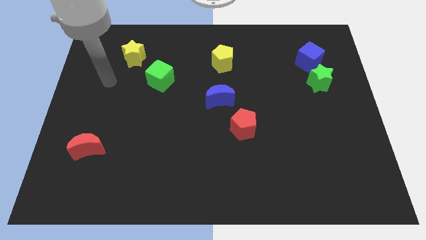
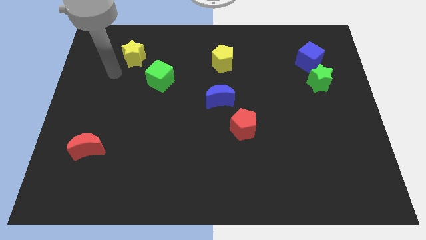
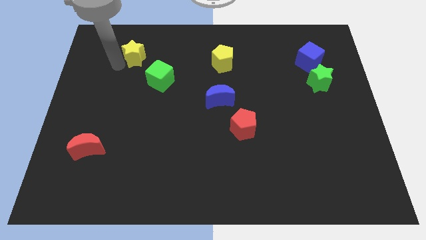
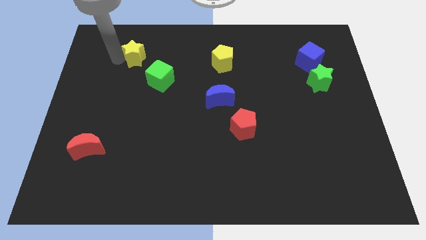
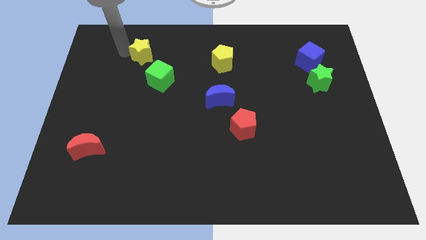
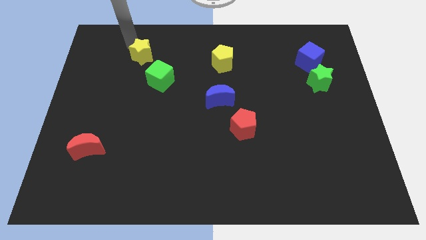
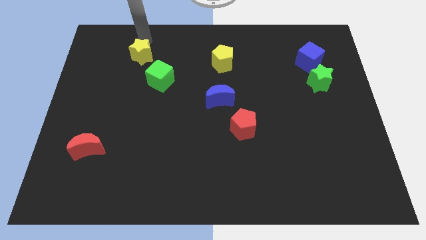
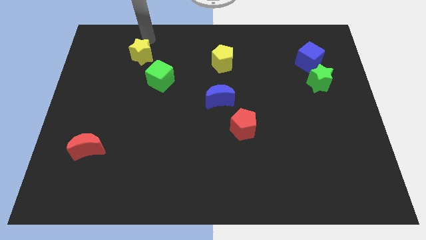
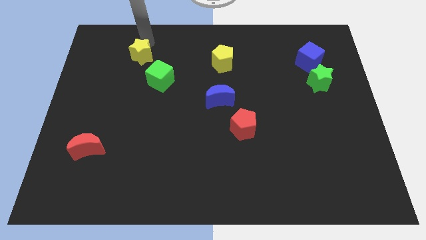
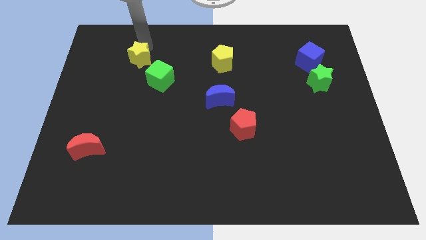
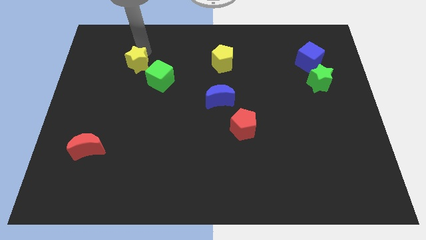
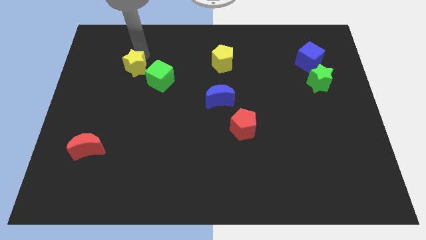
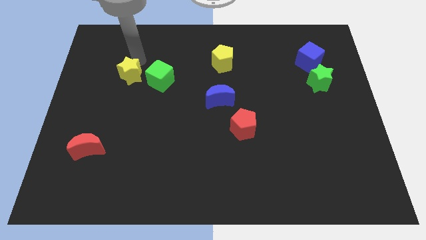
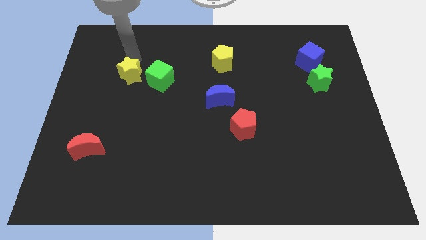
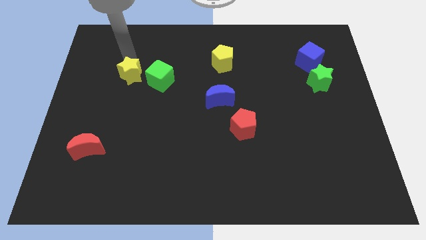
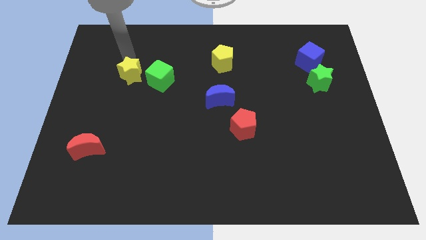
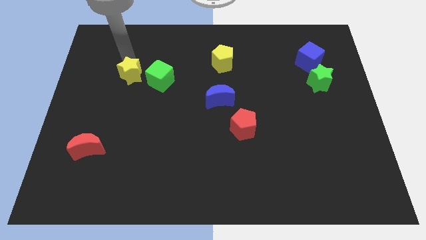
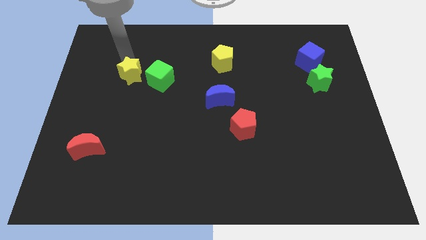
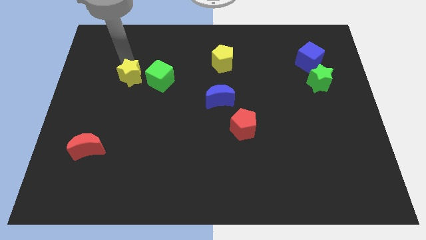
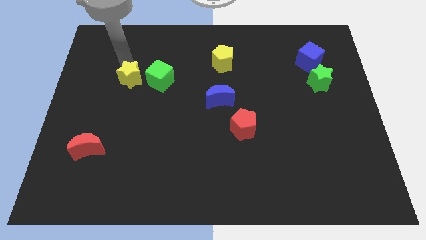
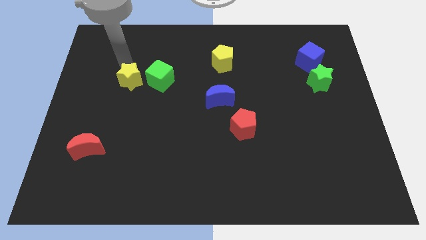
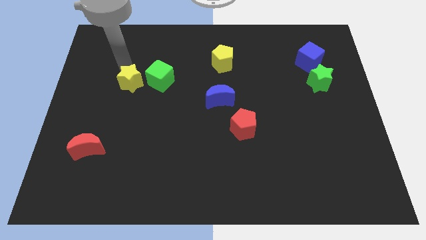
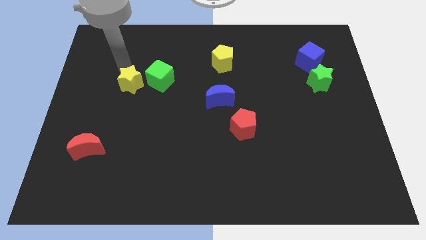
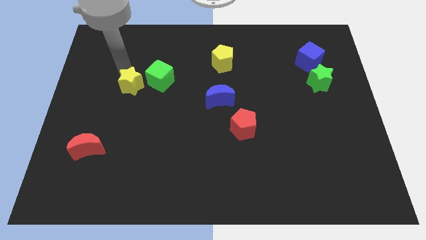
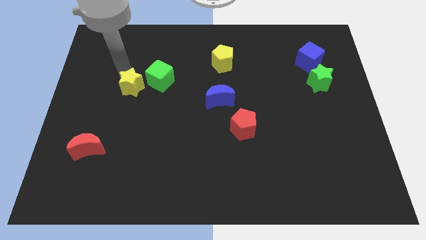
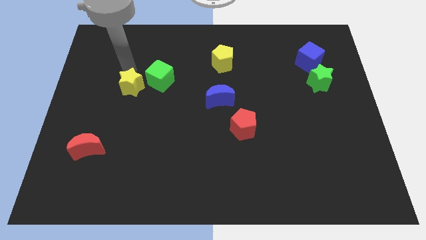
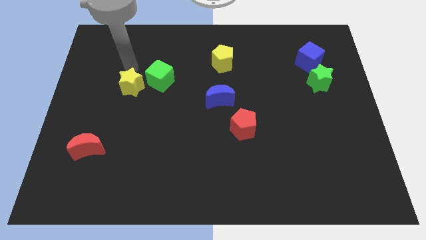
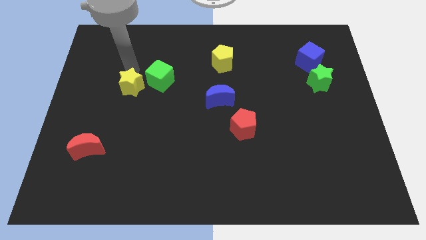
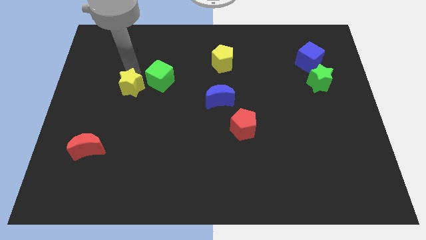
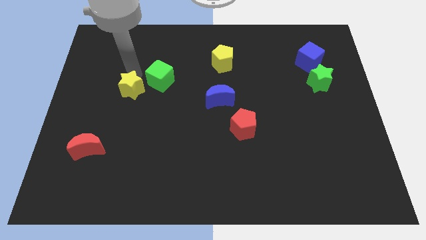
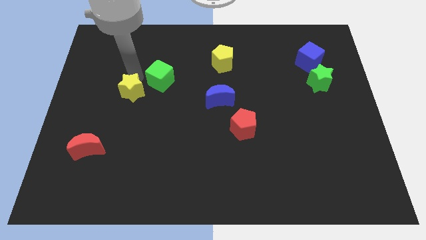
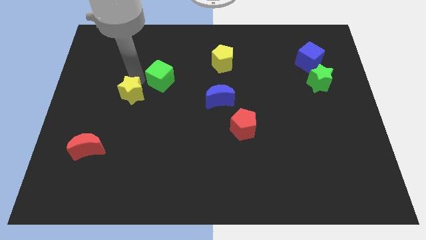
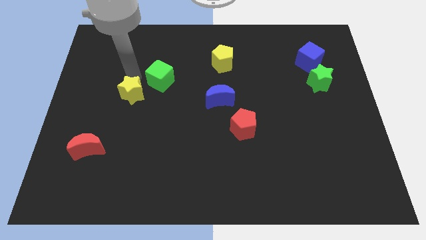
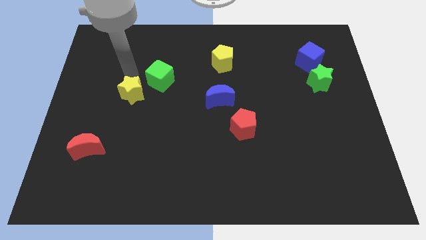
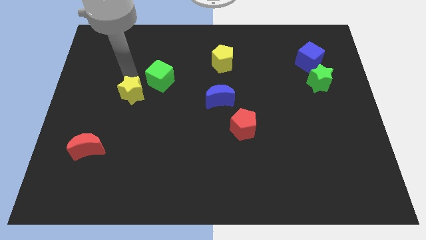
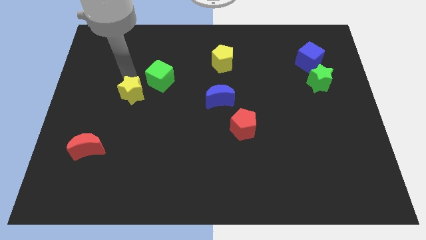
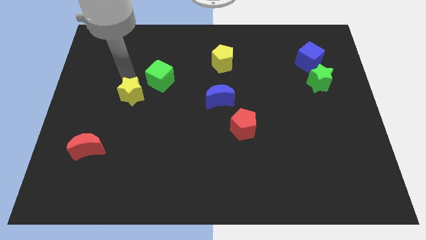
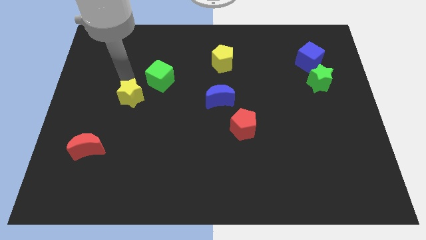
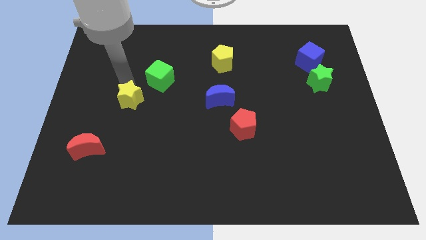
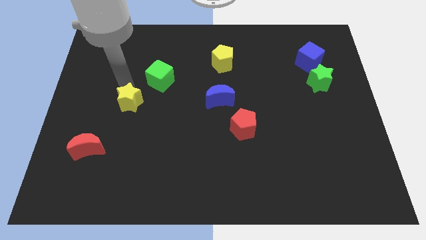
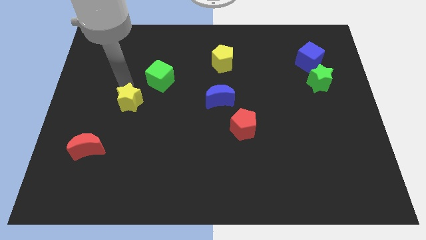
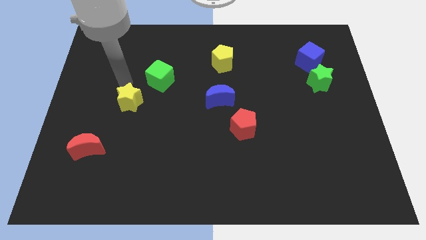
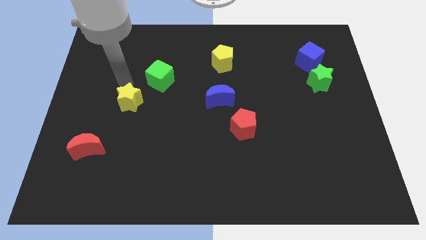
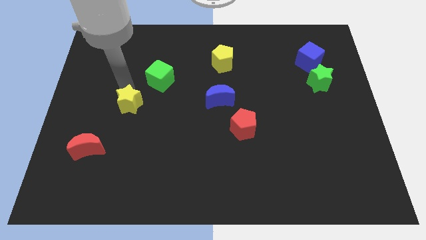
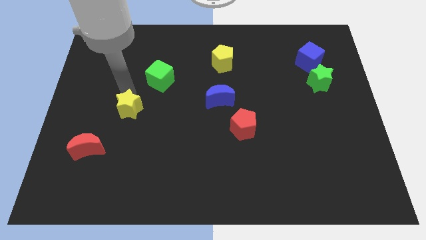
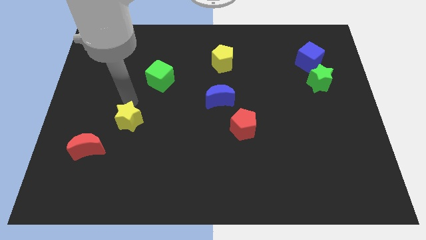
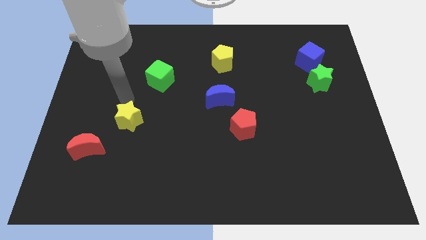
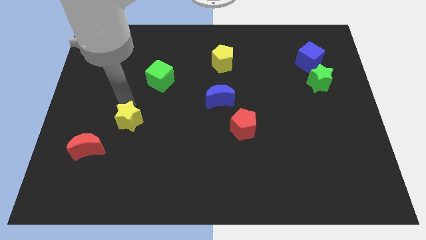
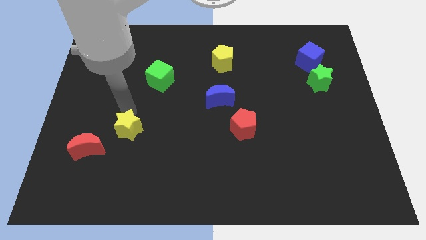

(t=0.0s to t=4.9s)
slide the yellow star right of the red moon

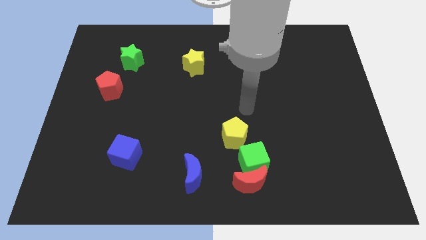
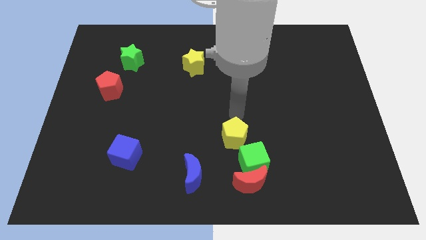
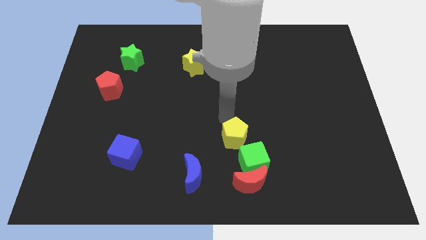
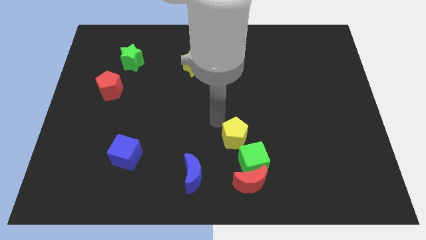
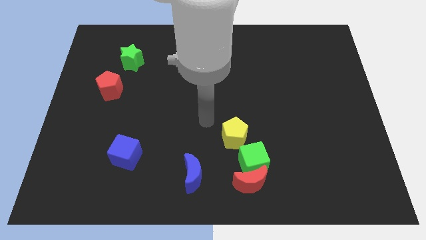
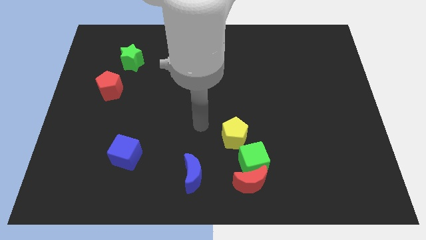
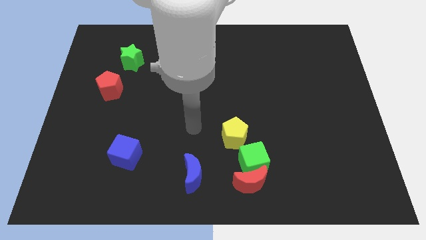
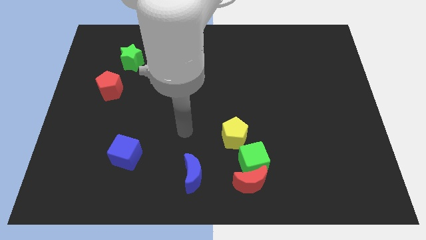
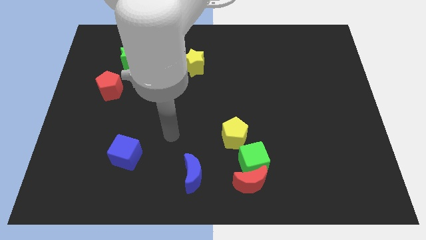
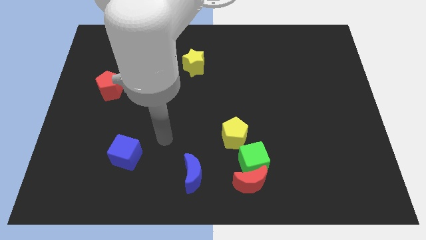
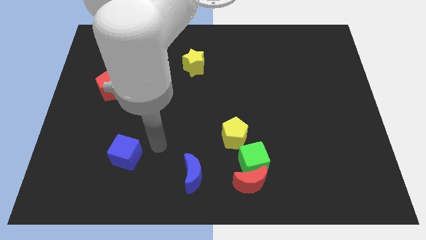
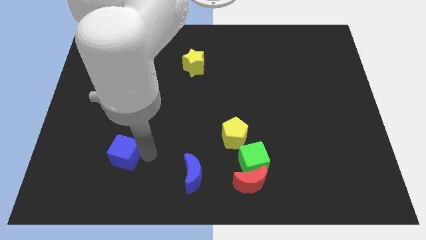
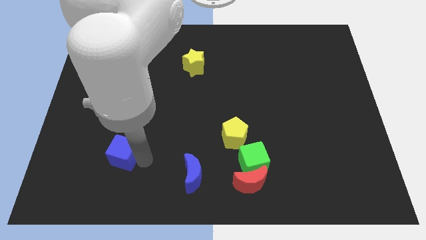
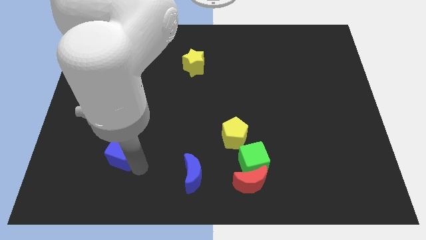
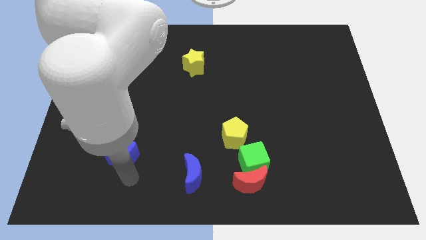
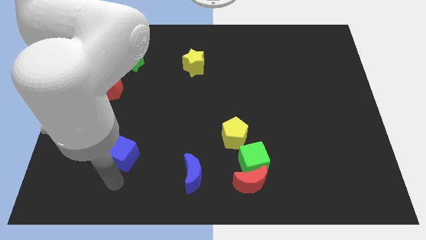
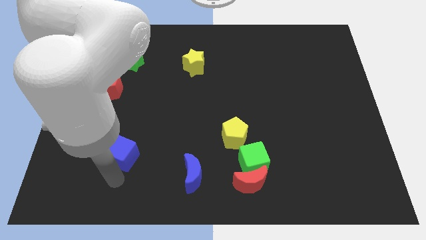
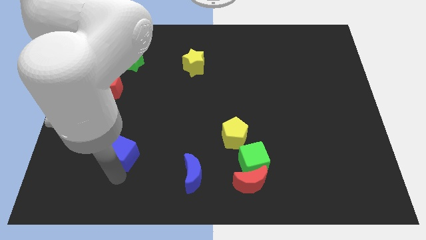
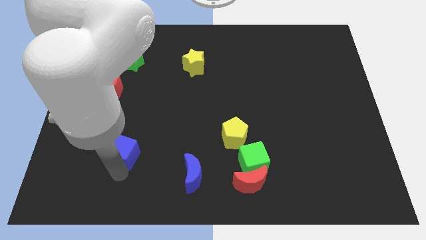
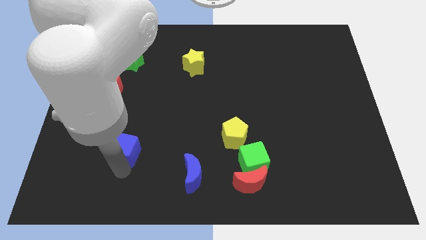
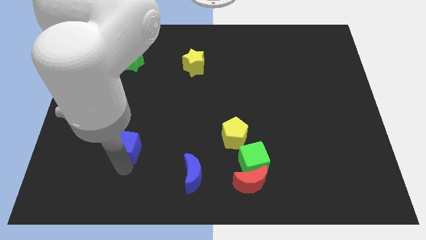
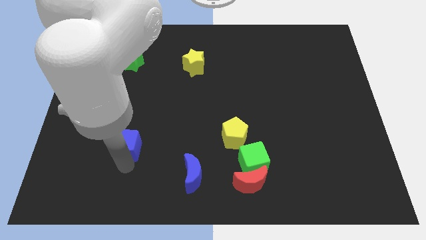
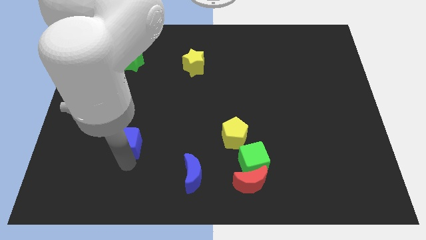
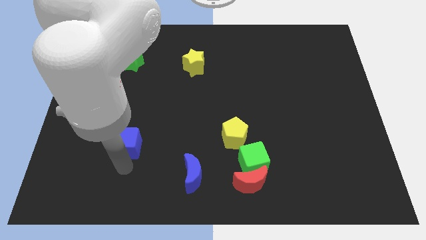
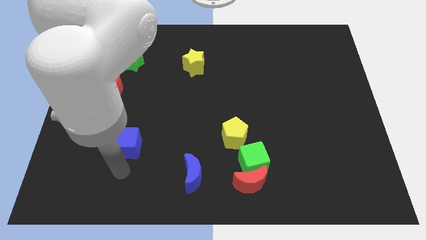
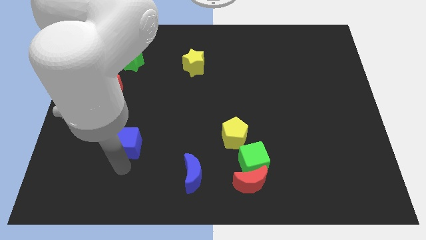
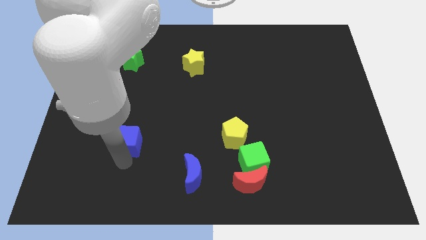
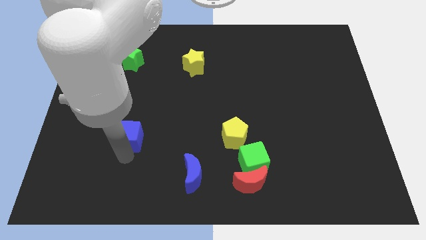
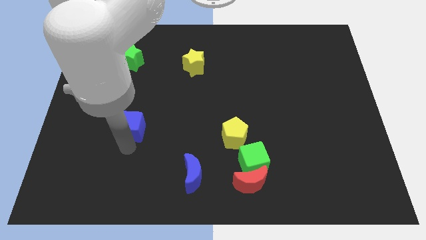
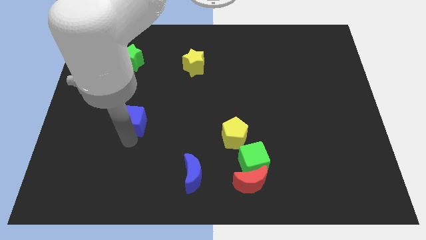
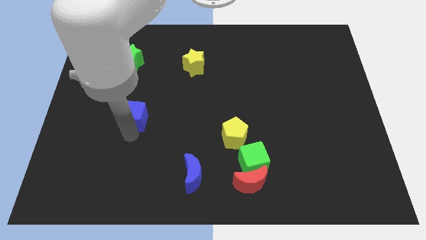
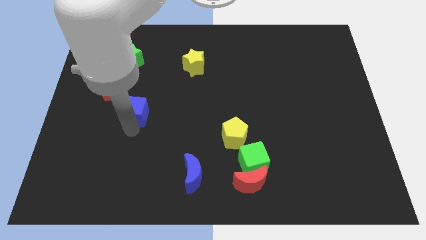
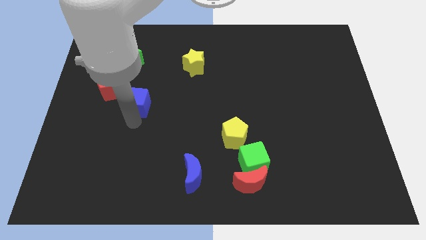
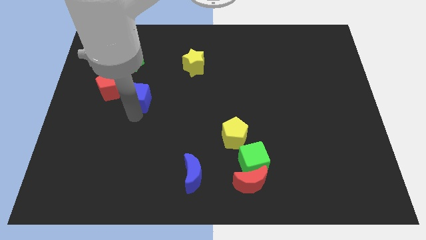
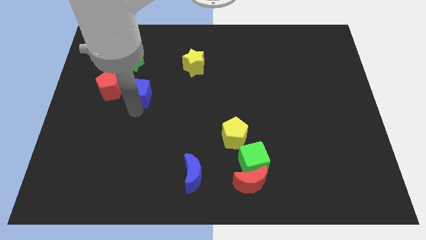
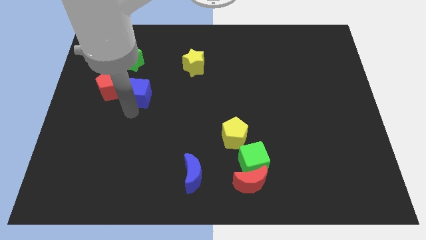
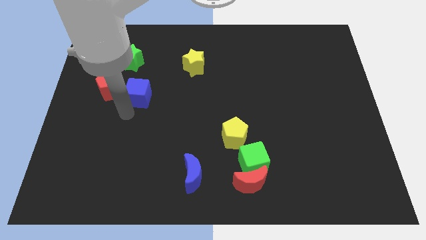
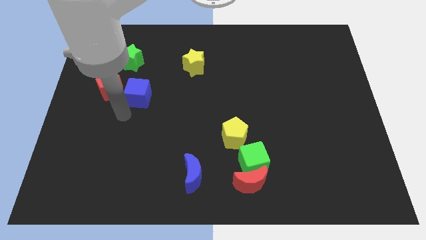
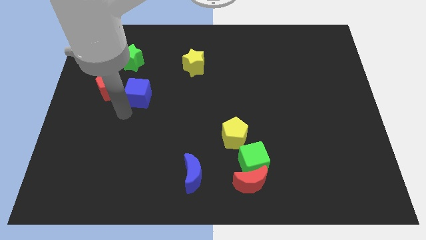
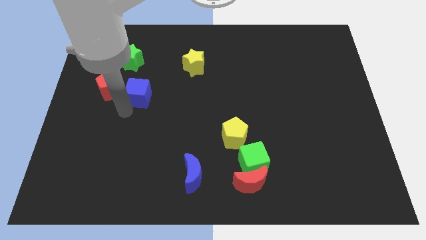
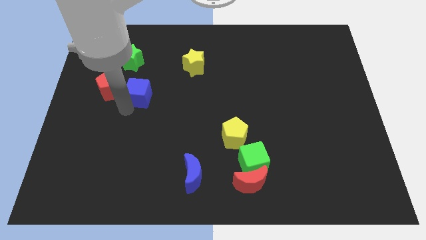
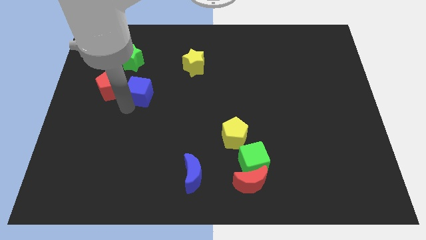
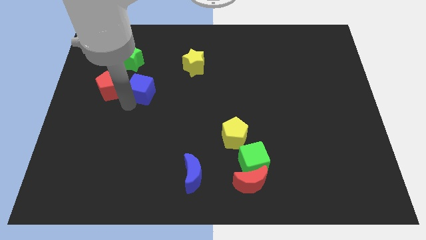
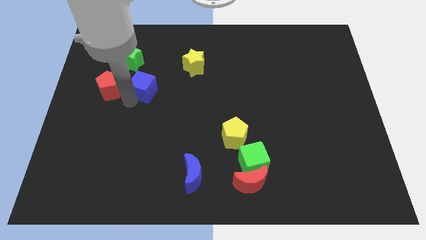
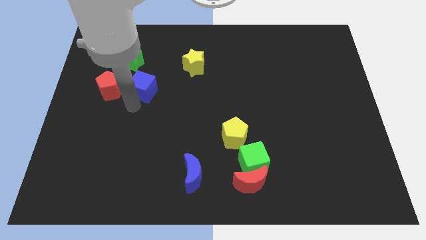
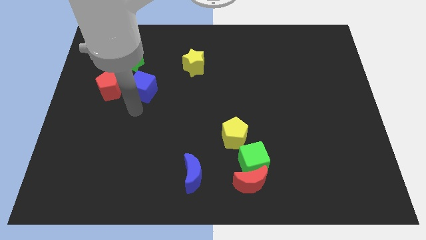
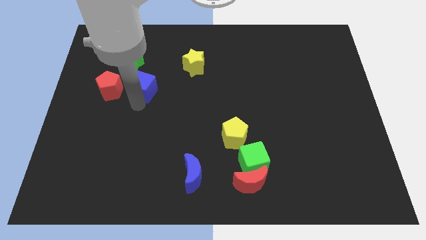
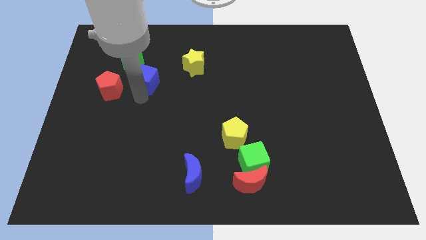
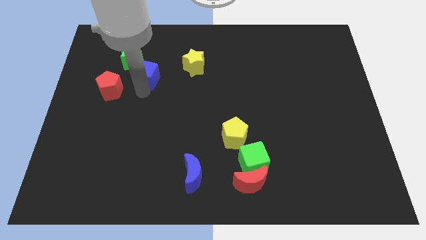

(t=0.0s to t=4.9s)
slide the blue cube to the left side of the yellow star
